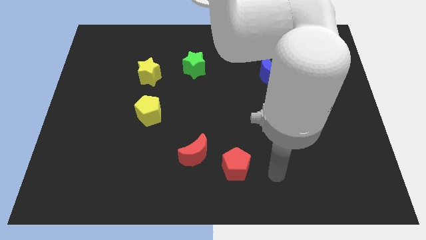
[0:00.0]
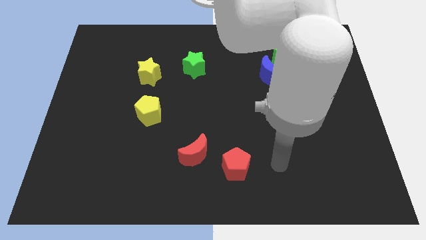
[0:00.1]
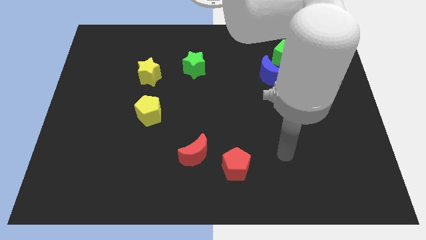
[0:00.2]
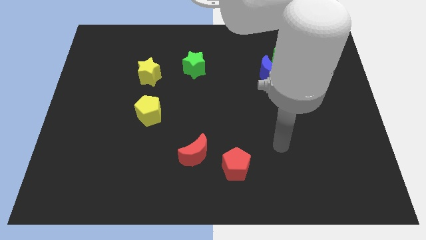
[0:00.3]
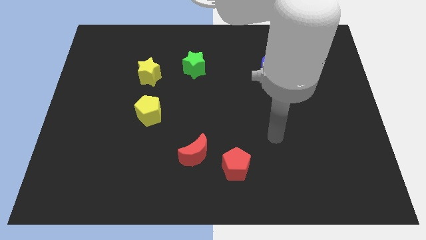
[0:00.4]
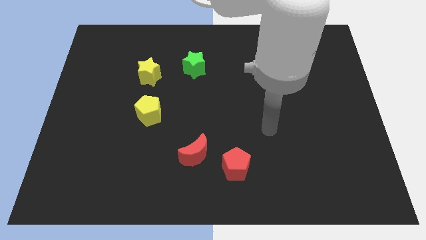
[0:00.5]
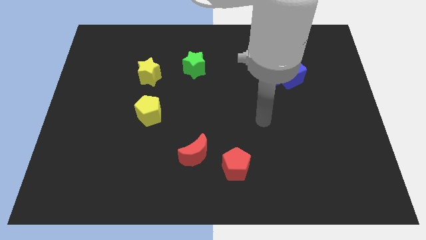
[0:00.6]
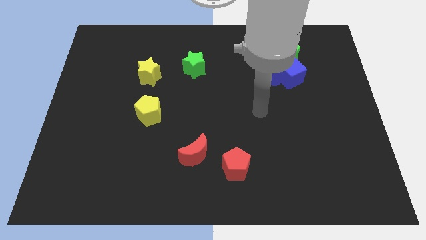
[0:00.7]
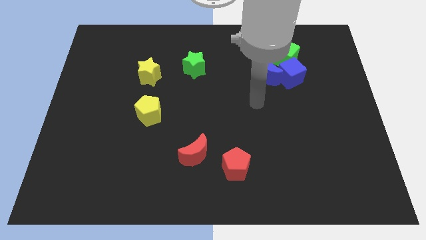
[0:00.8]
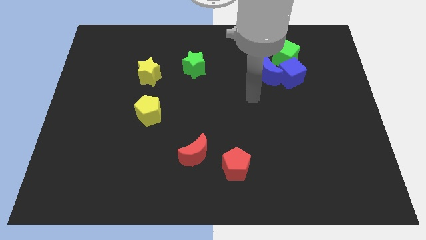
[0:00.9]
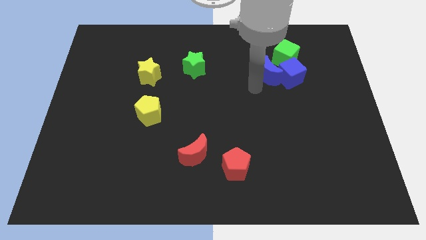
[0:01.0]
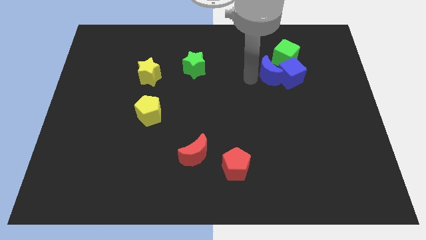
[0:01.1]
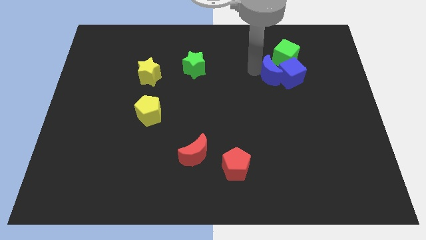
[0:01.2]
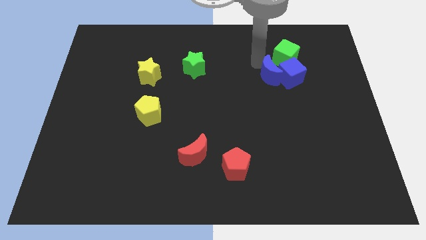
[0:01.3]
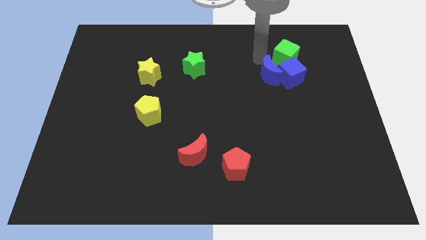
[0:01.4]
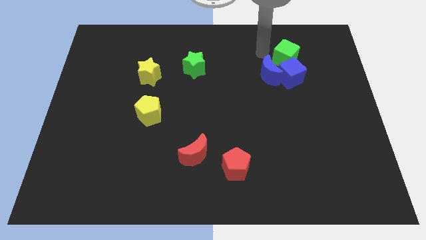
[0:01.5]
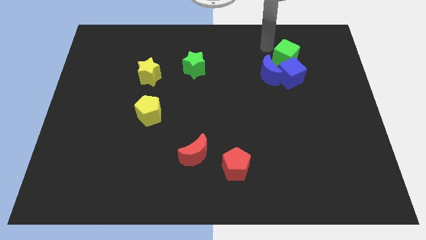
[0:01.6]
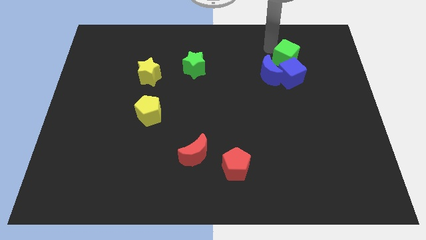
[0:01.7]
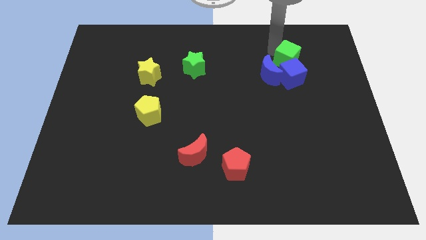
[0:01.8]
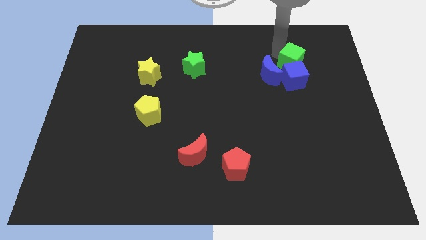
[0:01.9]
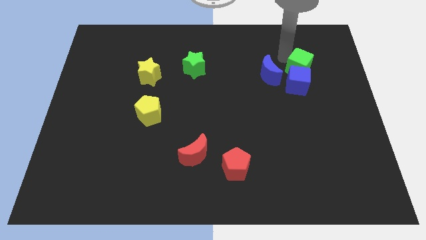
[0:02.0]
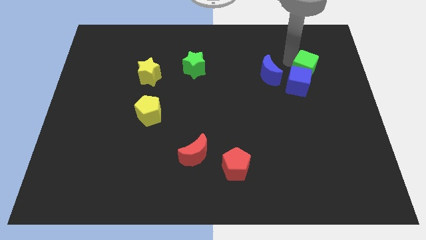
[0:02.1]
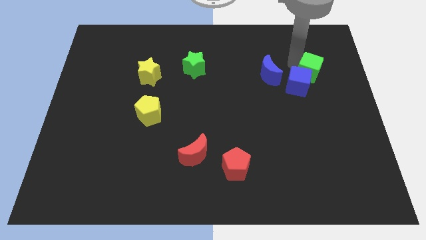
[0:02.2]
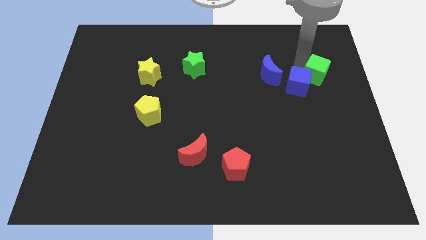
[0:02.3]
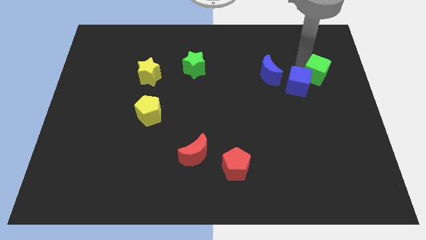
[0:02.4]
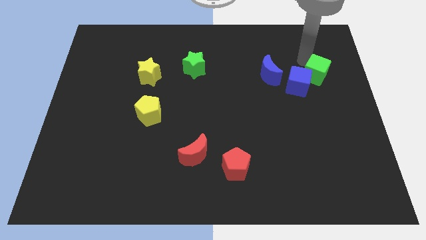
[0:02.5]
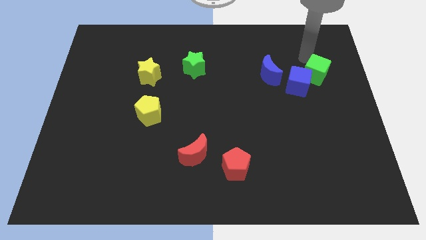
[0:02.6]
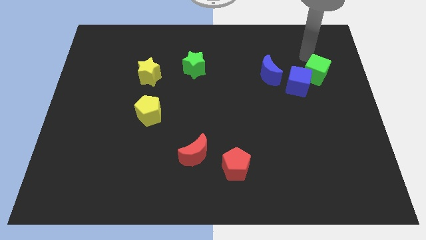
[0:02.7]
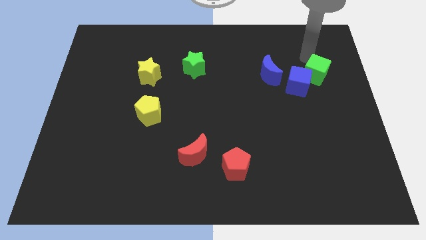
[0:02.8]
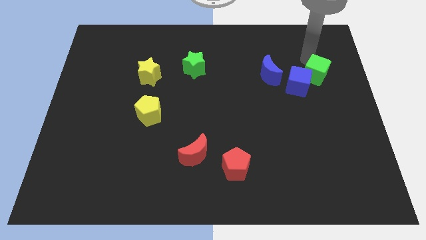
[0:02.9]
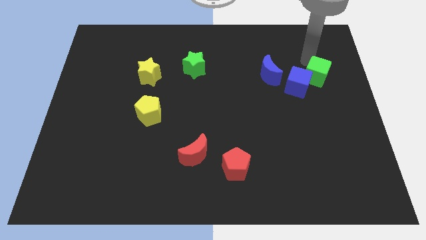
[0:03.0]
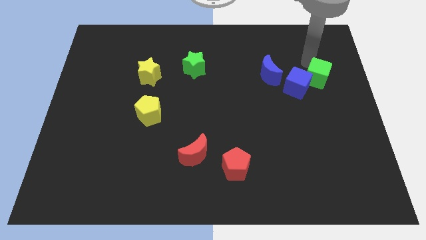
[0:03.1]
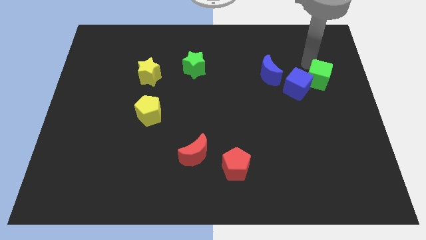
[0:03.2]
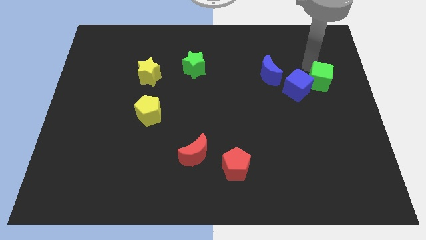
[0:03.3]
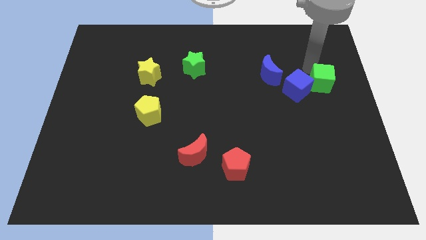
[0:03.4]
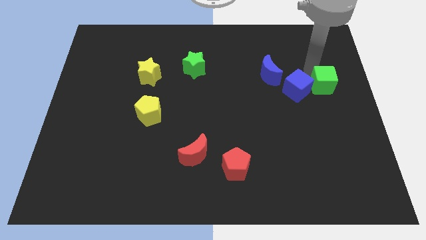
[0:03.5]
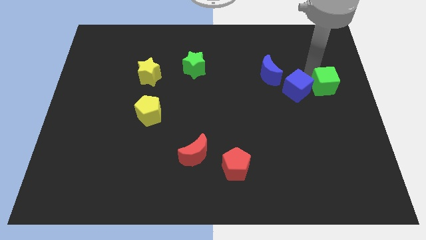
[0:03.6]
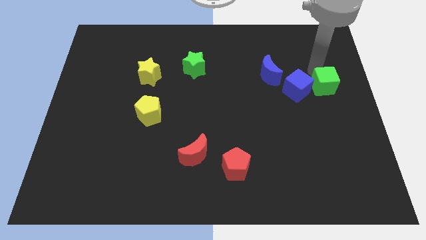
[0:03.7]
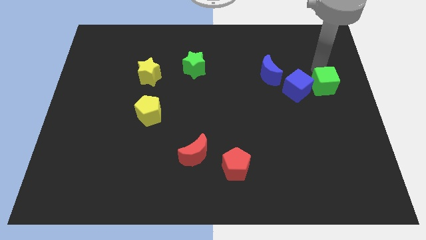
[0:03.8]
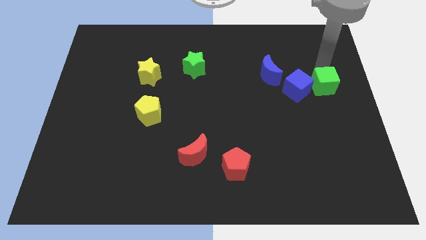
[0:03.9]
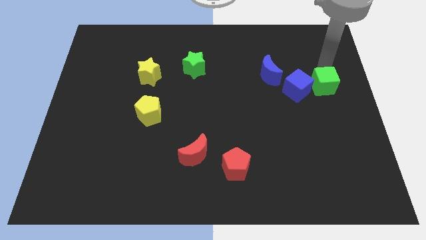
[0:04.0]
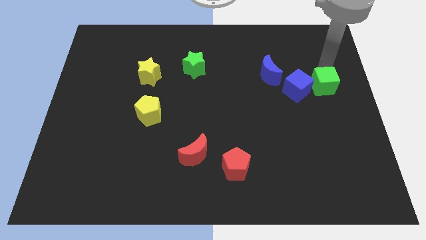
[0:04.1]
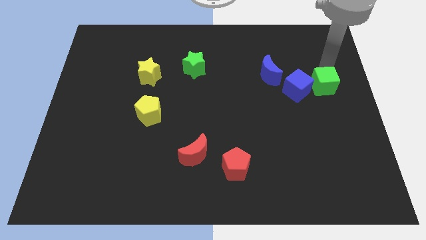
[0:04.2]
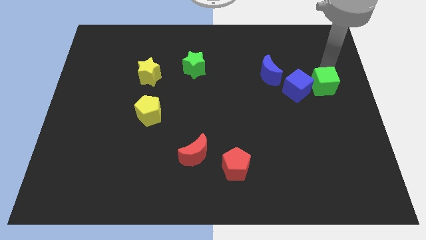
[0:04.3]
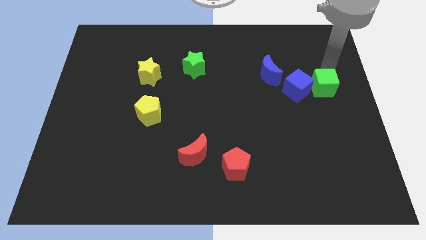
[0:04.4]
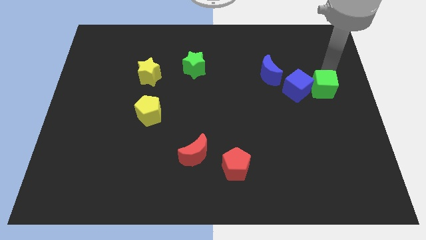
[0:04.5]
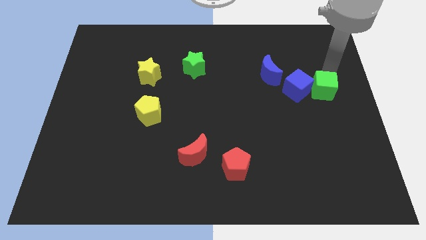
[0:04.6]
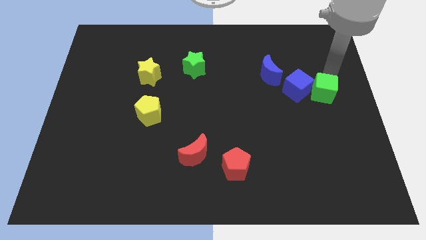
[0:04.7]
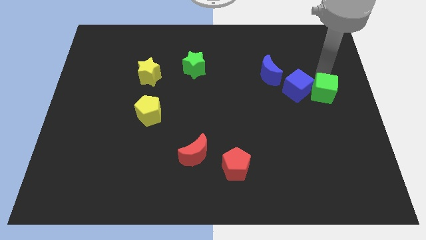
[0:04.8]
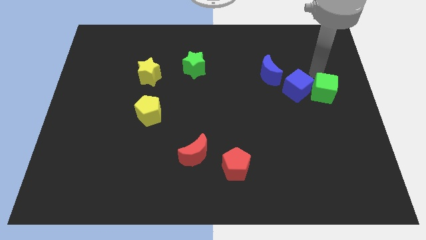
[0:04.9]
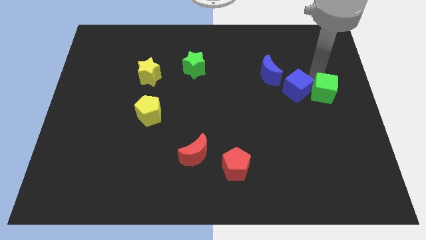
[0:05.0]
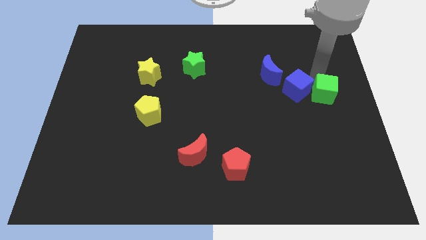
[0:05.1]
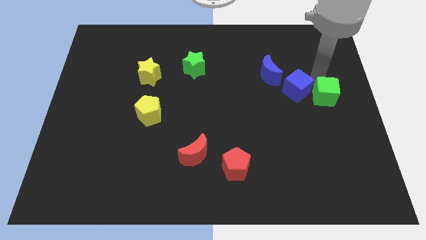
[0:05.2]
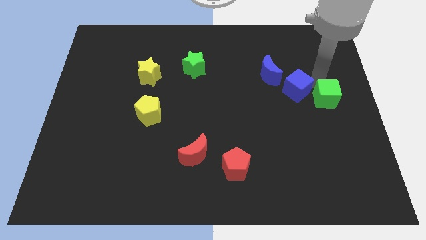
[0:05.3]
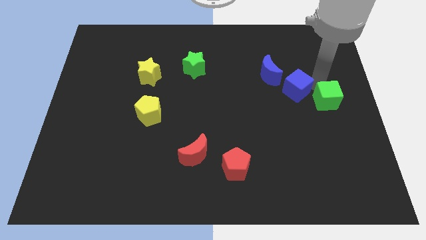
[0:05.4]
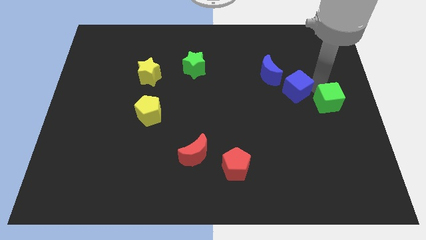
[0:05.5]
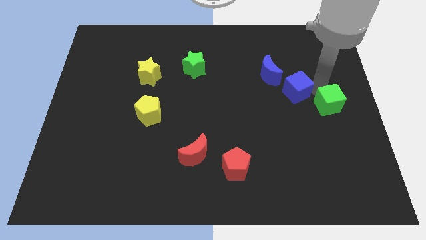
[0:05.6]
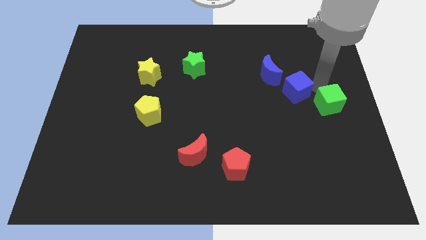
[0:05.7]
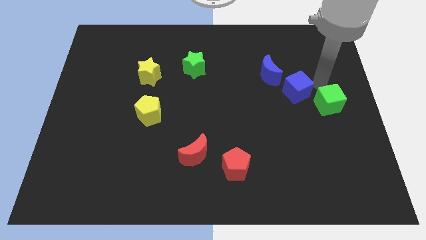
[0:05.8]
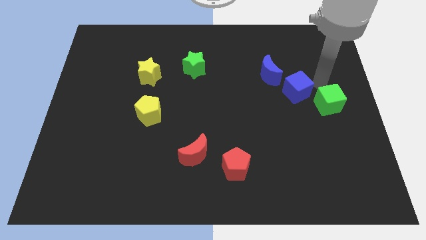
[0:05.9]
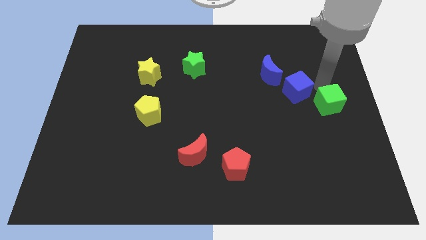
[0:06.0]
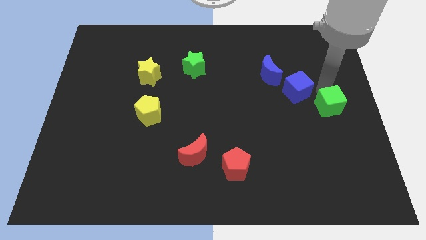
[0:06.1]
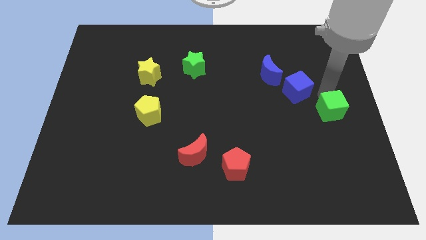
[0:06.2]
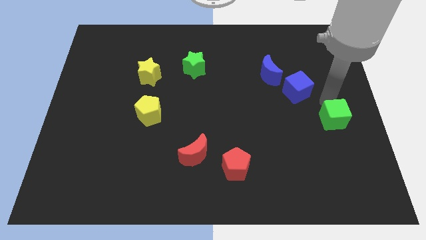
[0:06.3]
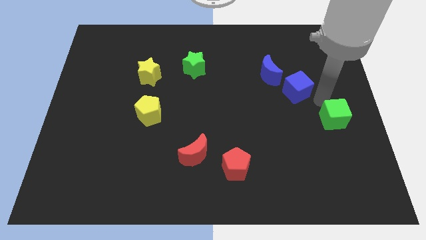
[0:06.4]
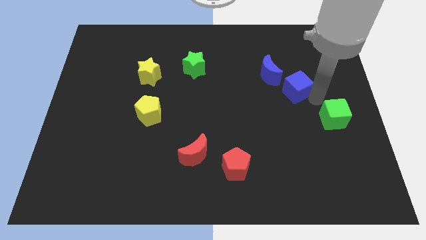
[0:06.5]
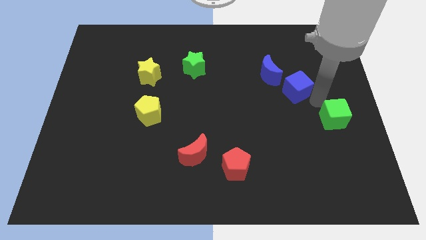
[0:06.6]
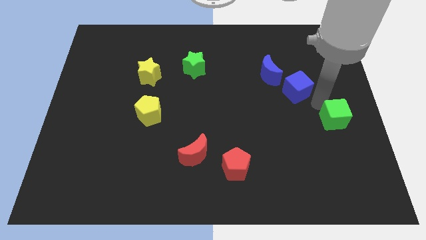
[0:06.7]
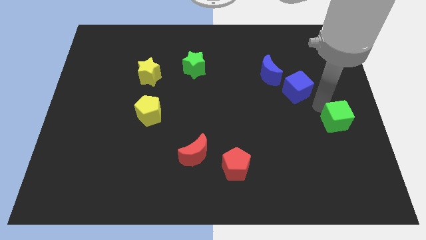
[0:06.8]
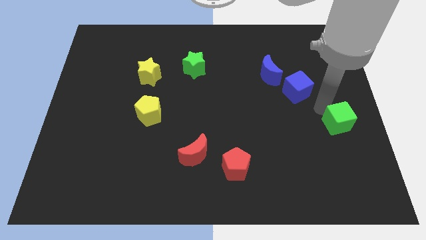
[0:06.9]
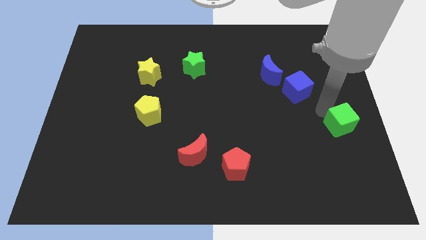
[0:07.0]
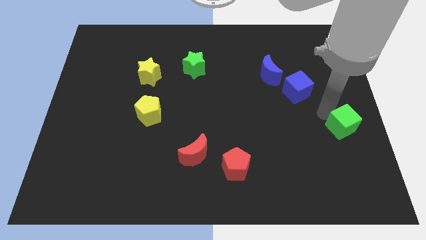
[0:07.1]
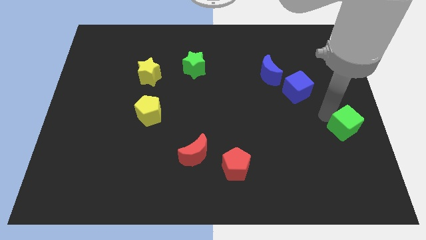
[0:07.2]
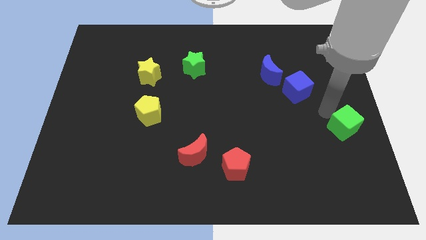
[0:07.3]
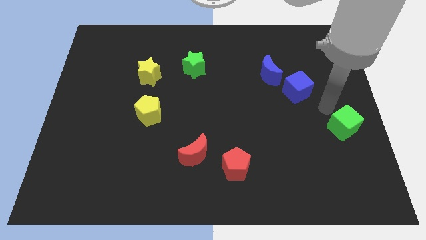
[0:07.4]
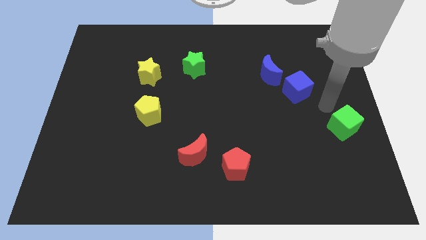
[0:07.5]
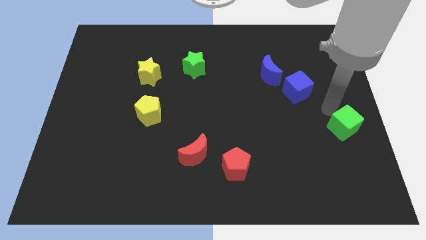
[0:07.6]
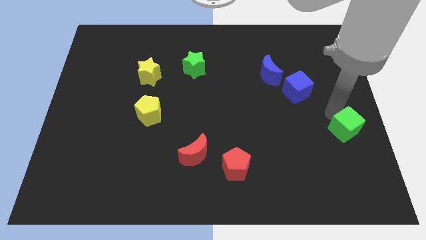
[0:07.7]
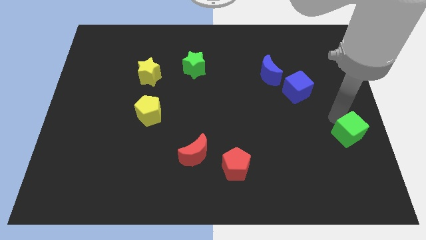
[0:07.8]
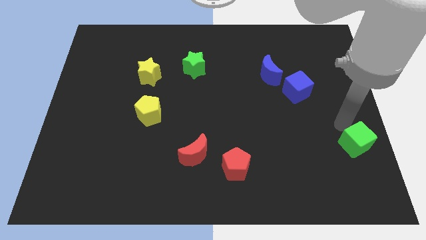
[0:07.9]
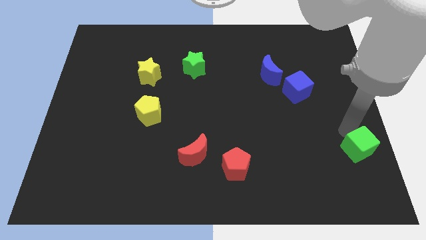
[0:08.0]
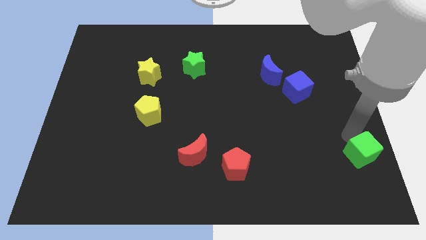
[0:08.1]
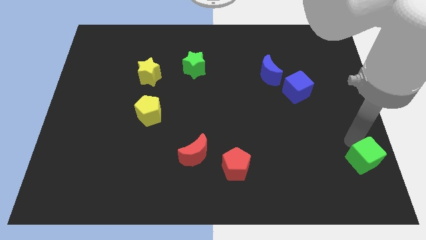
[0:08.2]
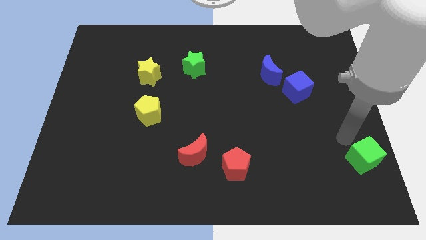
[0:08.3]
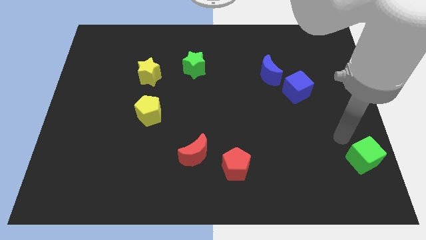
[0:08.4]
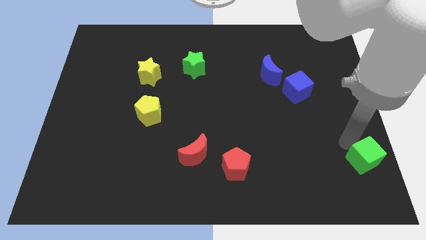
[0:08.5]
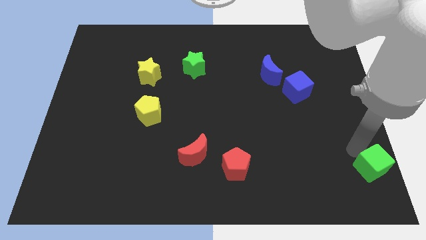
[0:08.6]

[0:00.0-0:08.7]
move the green cube to the bottom right of the board
